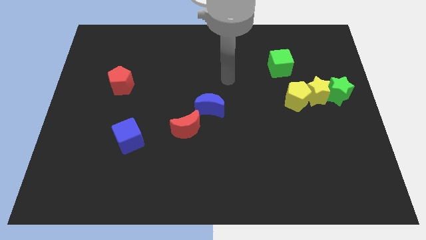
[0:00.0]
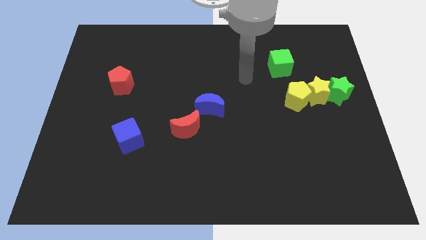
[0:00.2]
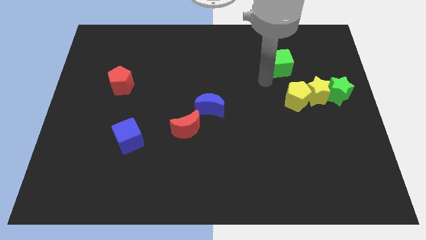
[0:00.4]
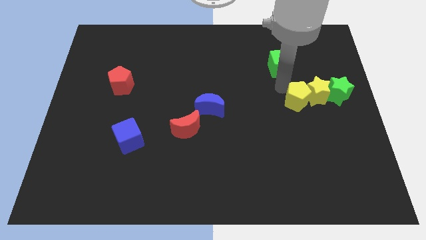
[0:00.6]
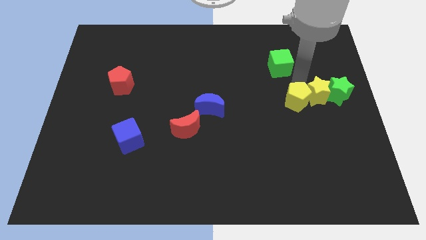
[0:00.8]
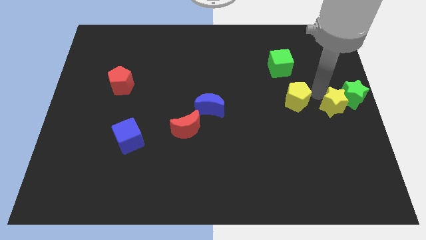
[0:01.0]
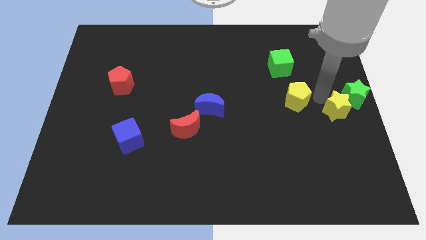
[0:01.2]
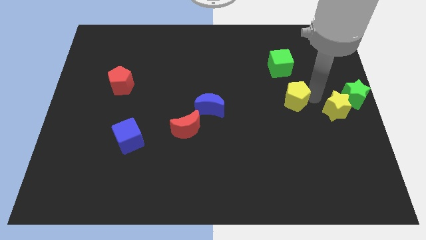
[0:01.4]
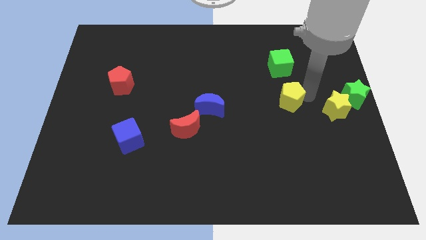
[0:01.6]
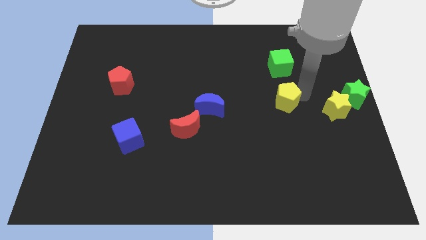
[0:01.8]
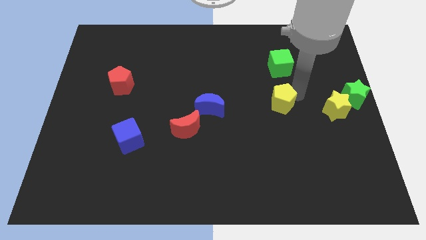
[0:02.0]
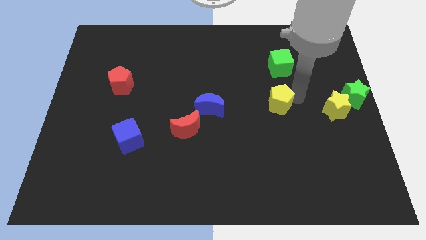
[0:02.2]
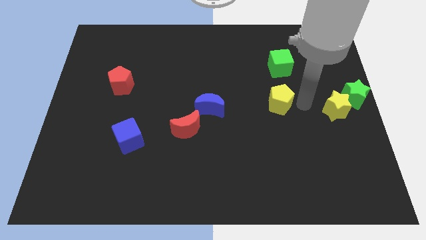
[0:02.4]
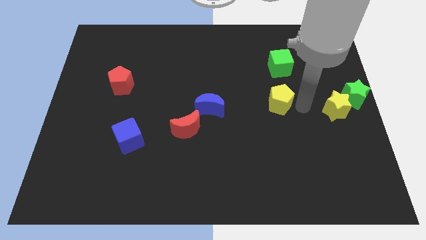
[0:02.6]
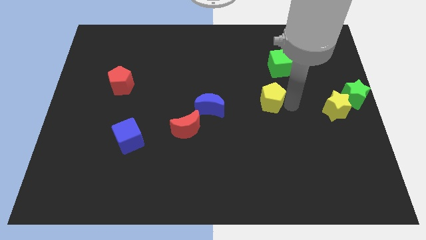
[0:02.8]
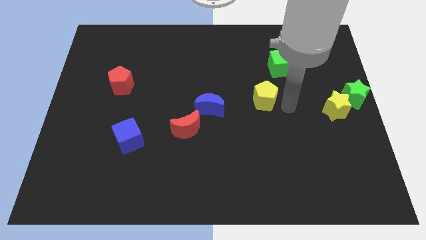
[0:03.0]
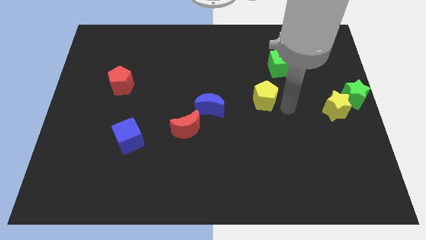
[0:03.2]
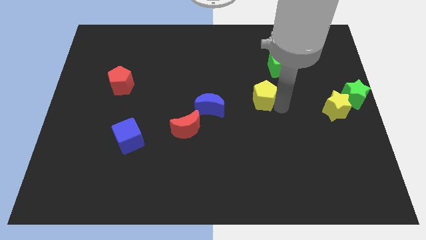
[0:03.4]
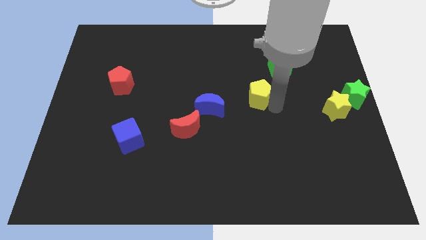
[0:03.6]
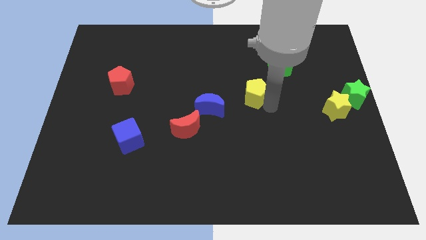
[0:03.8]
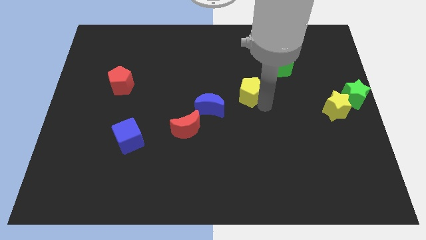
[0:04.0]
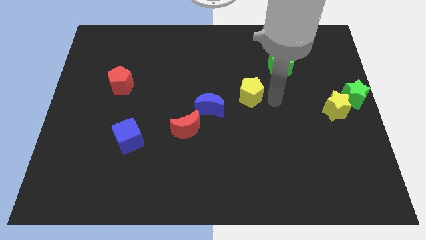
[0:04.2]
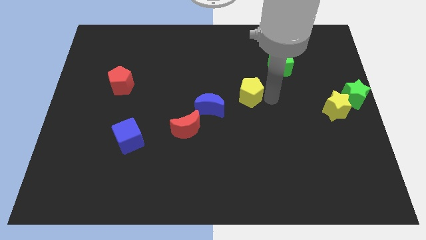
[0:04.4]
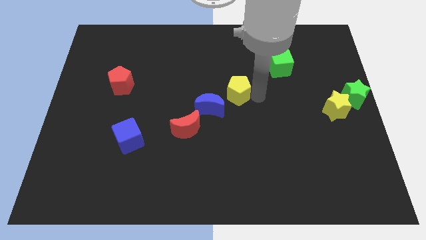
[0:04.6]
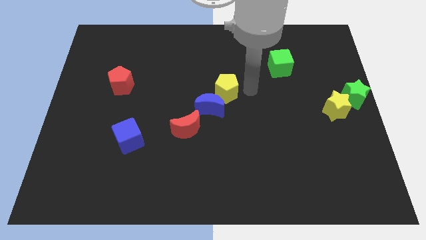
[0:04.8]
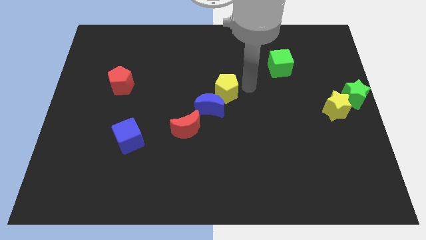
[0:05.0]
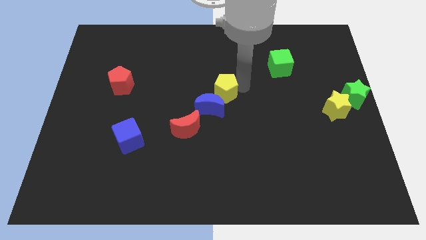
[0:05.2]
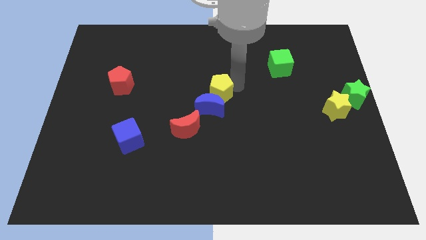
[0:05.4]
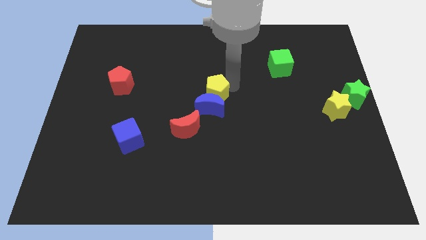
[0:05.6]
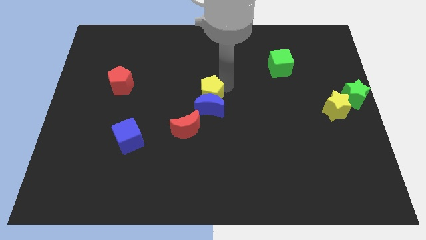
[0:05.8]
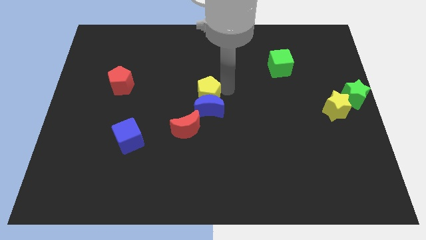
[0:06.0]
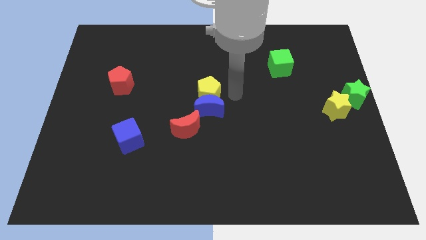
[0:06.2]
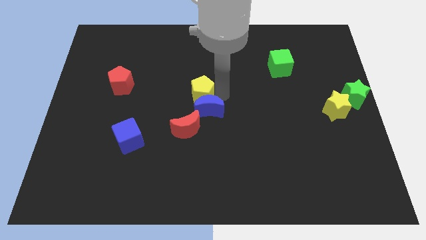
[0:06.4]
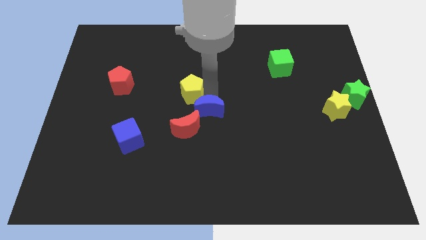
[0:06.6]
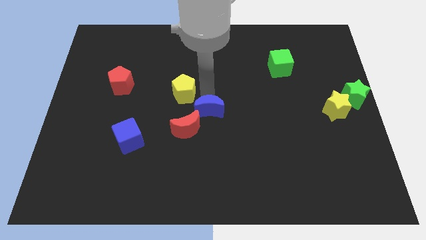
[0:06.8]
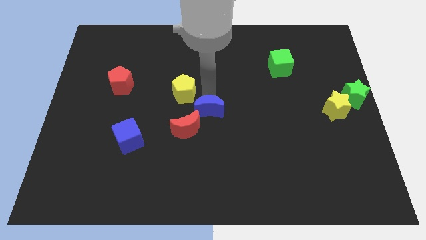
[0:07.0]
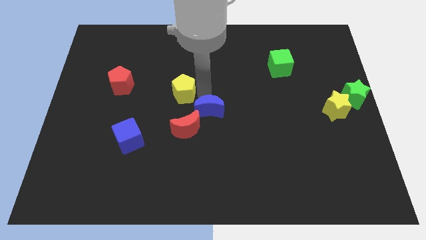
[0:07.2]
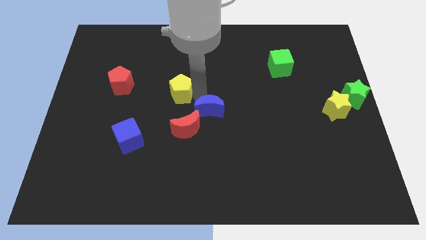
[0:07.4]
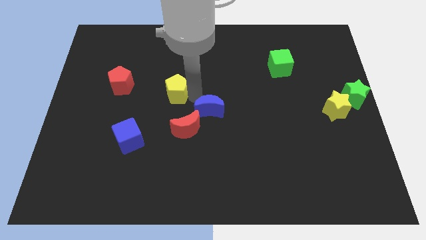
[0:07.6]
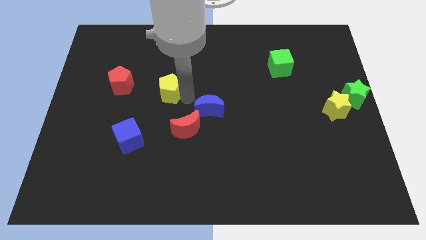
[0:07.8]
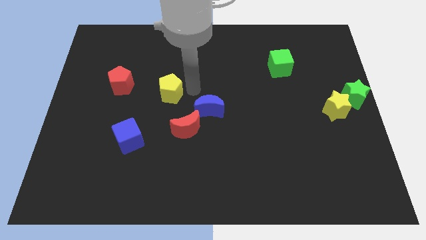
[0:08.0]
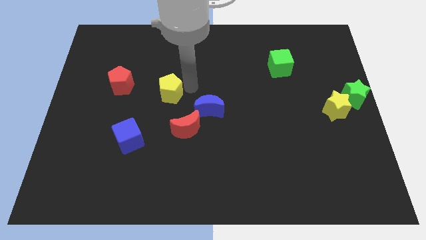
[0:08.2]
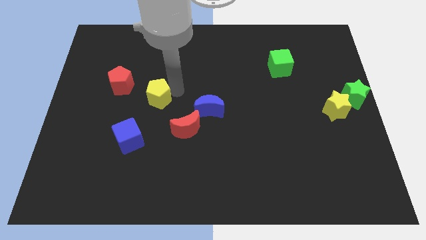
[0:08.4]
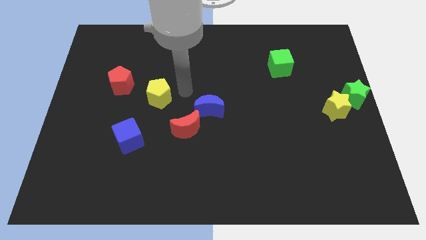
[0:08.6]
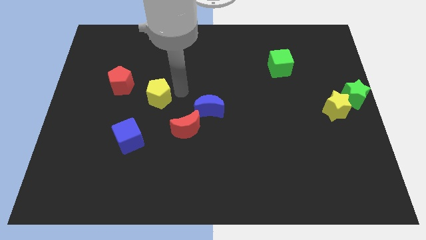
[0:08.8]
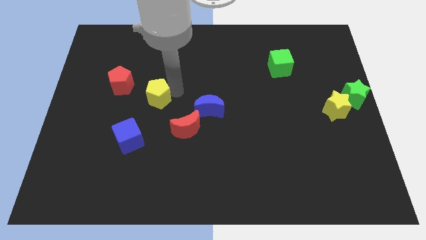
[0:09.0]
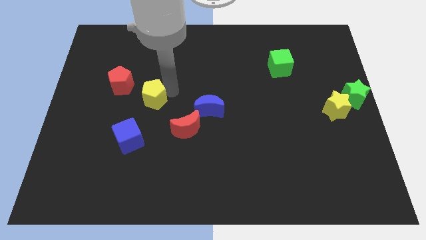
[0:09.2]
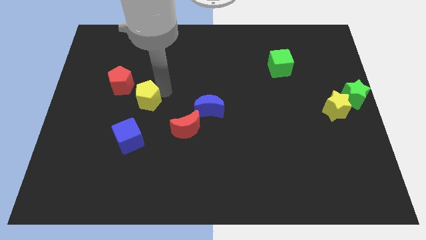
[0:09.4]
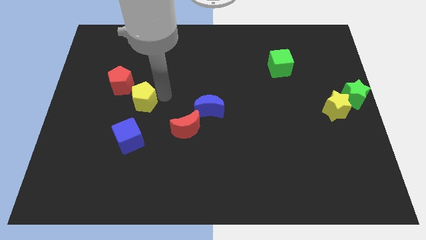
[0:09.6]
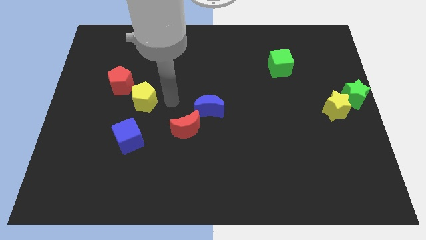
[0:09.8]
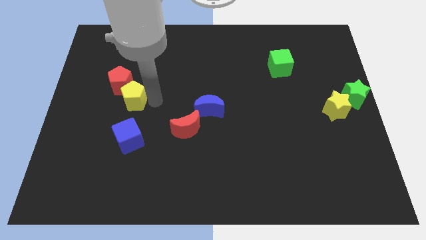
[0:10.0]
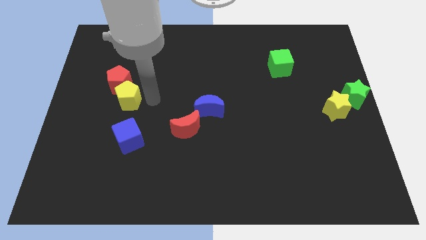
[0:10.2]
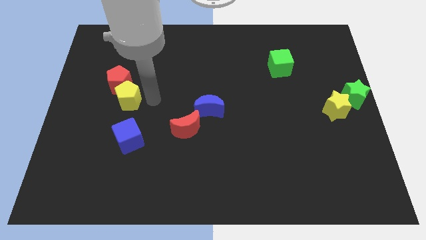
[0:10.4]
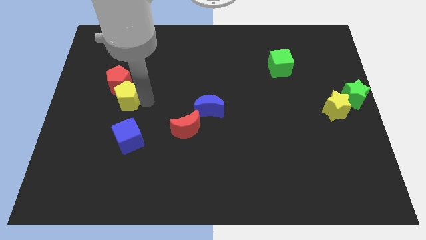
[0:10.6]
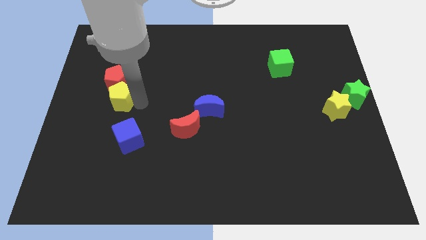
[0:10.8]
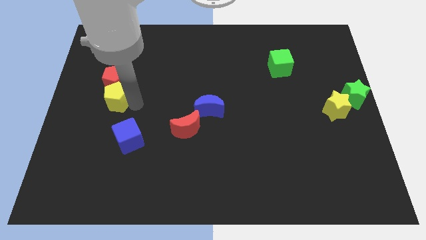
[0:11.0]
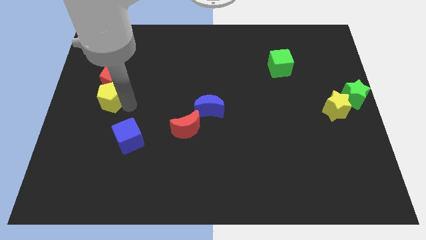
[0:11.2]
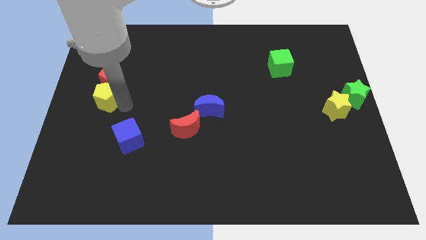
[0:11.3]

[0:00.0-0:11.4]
slide the yellow pentagon to the left side
